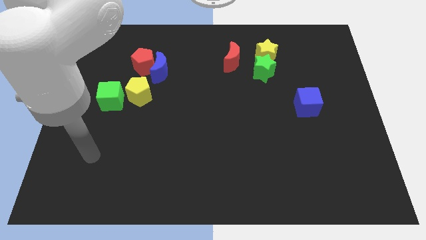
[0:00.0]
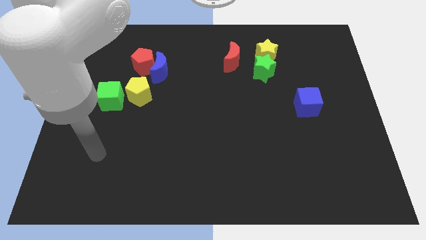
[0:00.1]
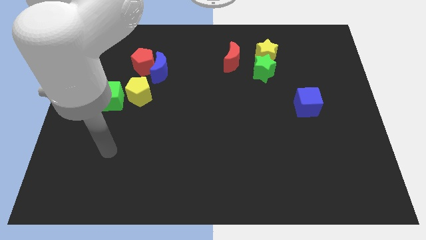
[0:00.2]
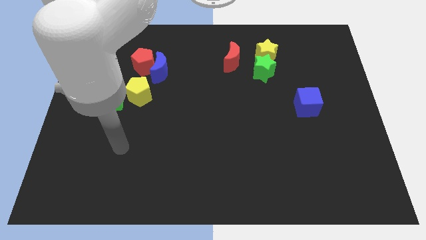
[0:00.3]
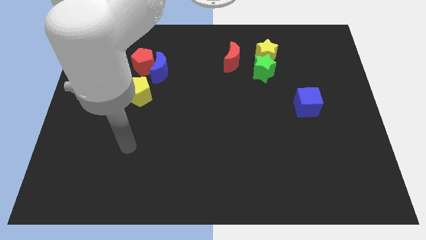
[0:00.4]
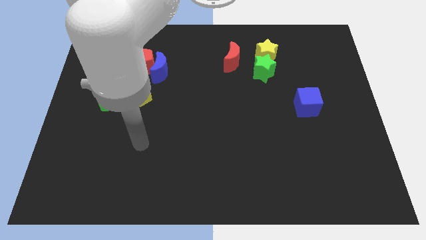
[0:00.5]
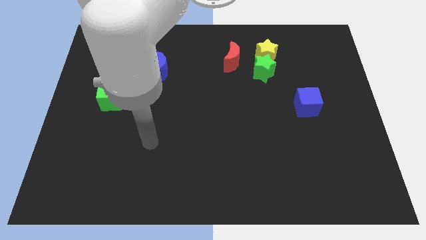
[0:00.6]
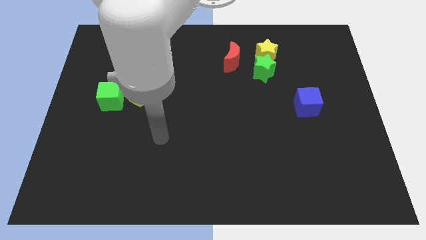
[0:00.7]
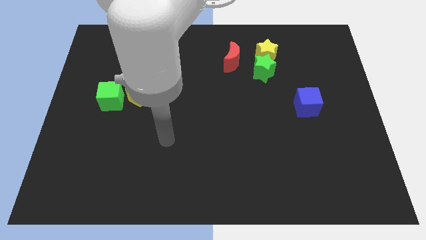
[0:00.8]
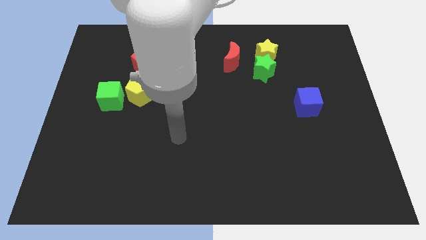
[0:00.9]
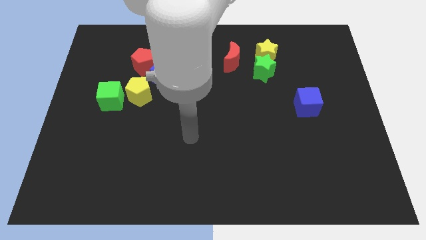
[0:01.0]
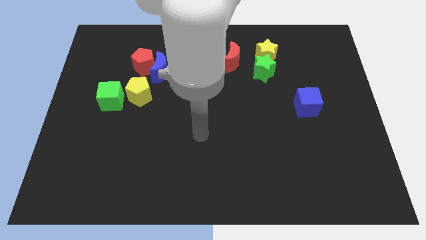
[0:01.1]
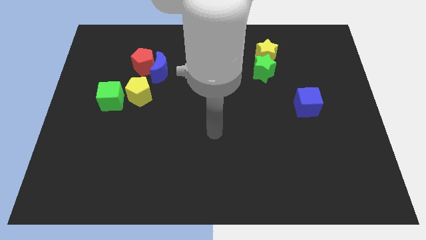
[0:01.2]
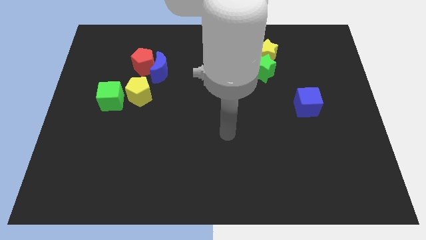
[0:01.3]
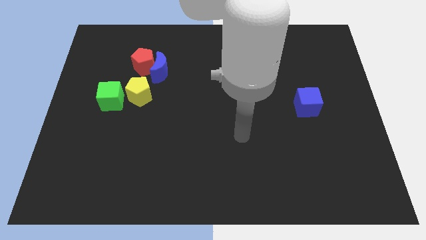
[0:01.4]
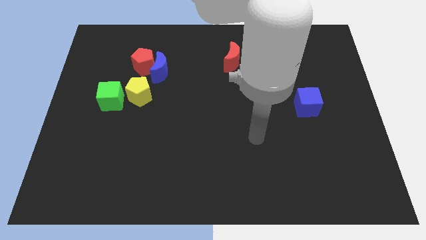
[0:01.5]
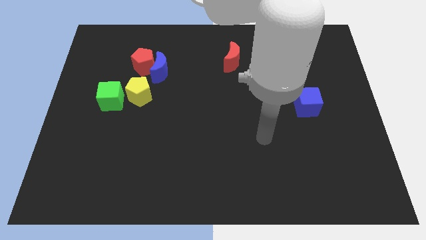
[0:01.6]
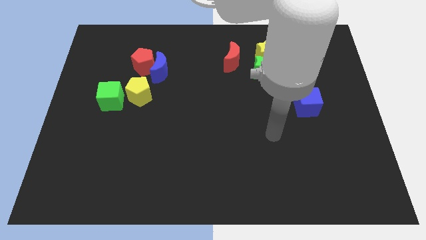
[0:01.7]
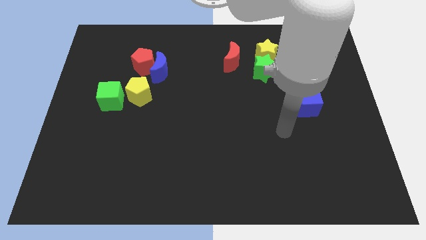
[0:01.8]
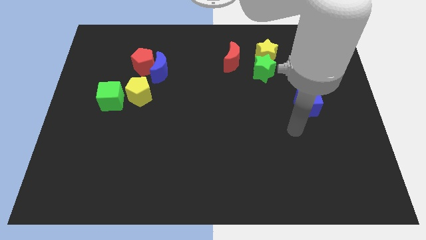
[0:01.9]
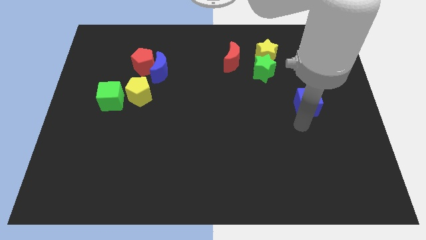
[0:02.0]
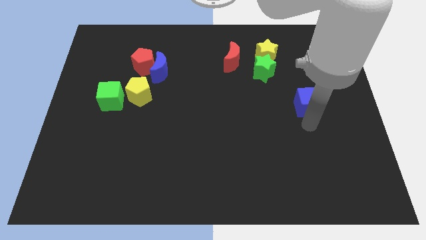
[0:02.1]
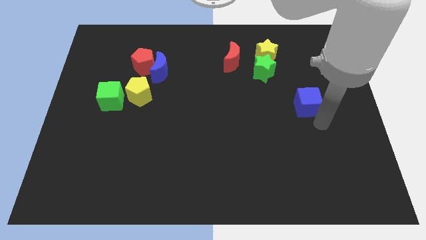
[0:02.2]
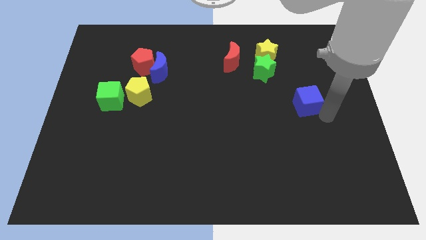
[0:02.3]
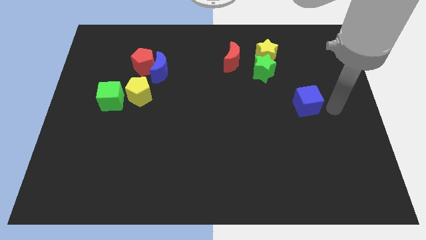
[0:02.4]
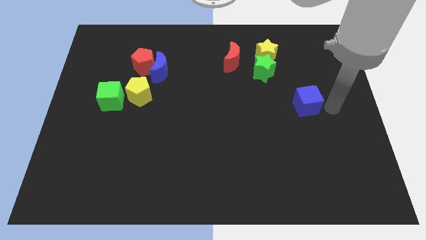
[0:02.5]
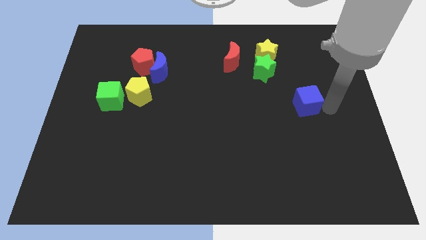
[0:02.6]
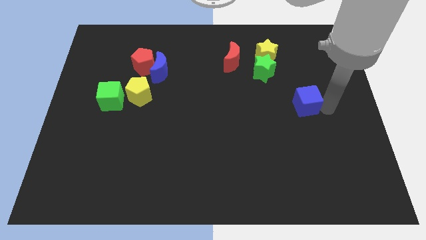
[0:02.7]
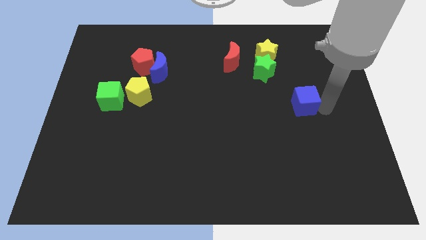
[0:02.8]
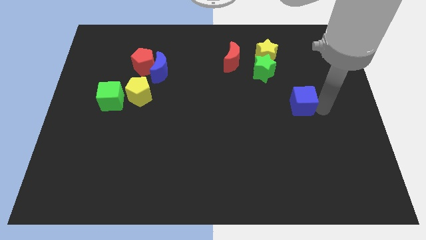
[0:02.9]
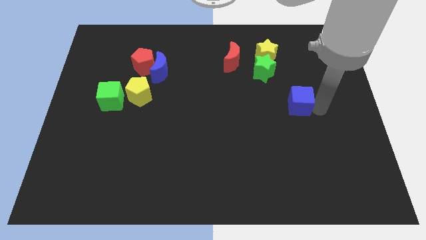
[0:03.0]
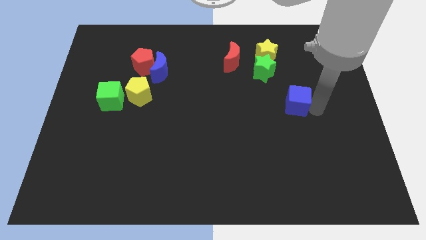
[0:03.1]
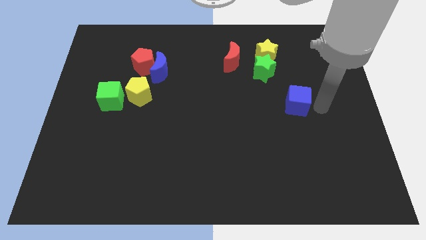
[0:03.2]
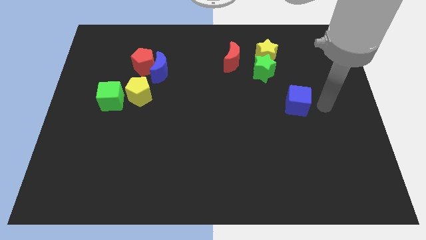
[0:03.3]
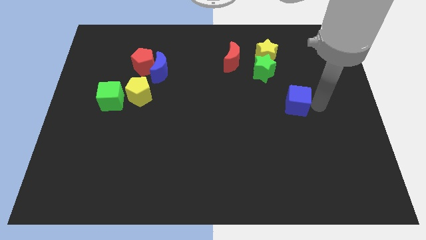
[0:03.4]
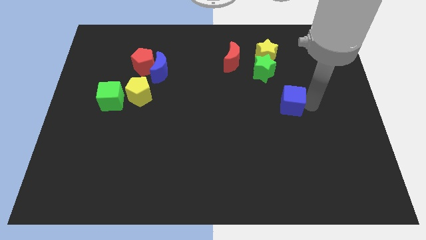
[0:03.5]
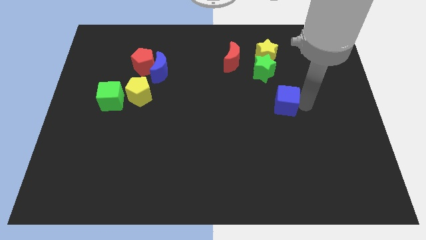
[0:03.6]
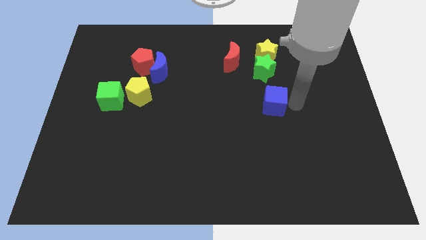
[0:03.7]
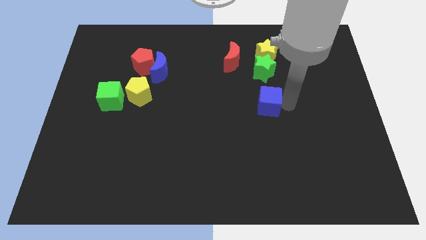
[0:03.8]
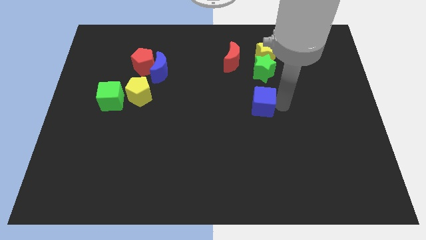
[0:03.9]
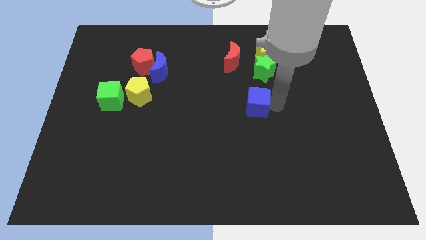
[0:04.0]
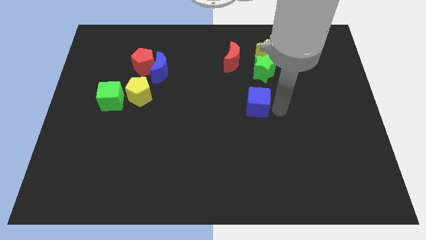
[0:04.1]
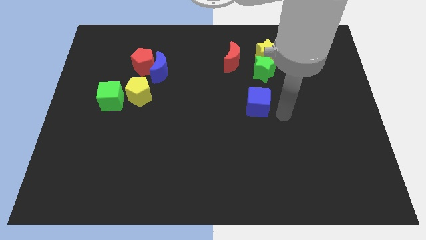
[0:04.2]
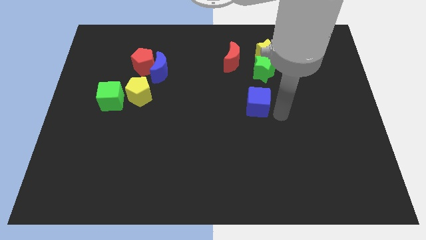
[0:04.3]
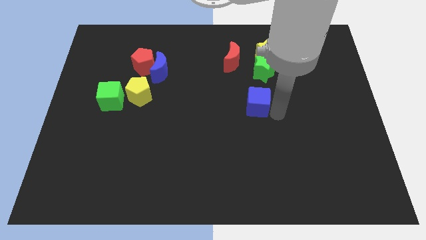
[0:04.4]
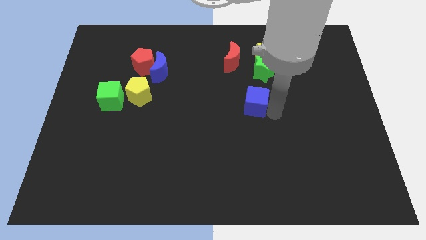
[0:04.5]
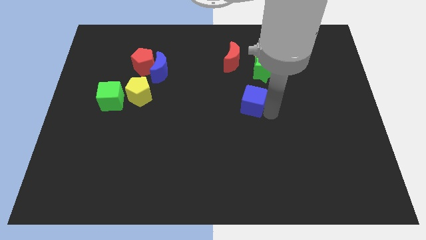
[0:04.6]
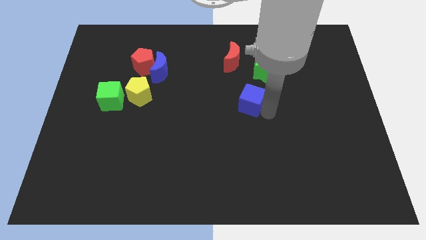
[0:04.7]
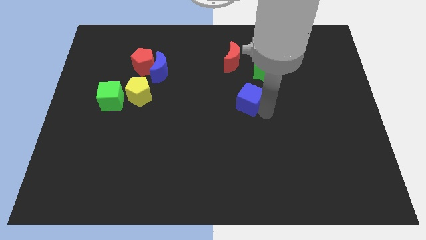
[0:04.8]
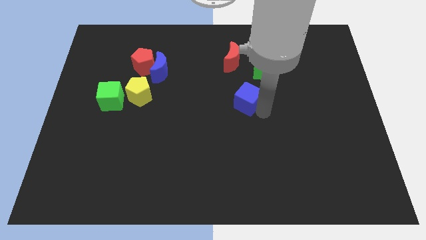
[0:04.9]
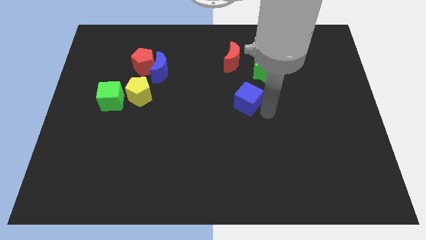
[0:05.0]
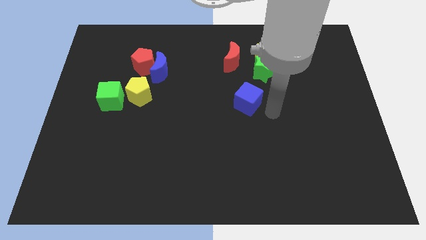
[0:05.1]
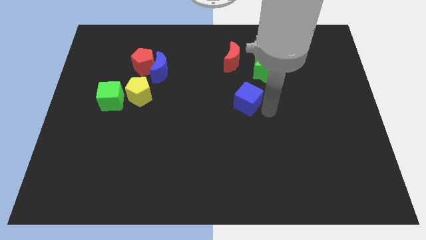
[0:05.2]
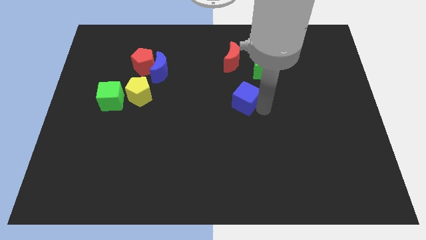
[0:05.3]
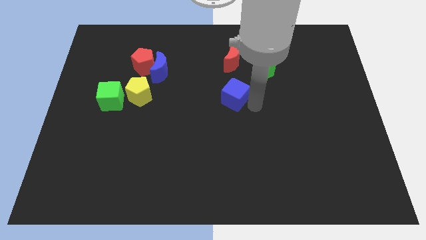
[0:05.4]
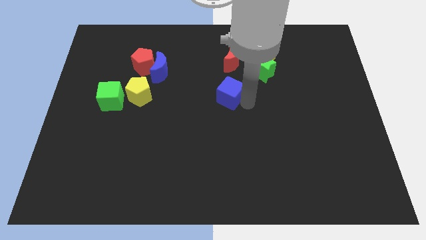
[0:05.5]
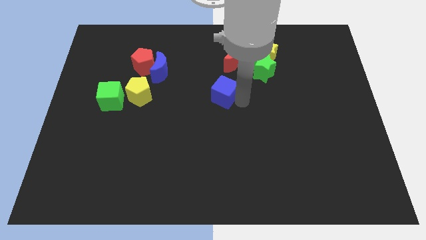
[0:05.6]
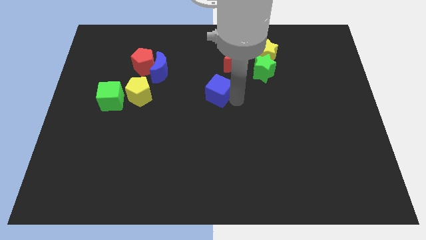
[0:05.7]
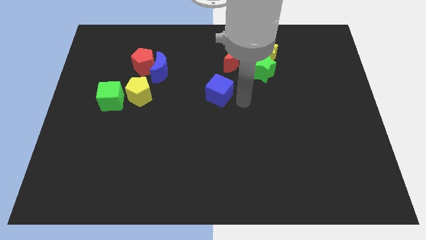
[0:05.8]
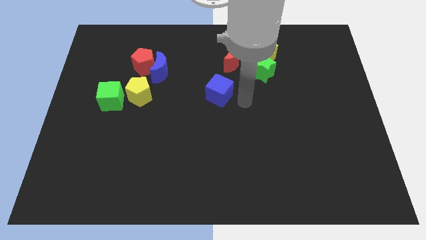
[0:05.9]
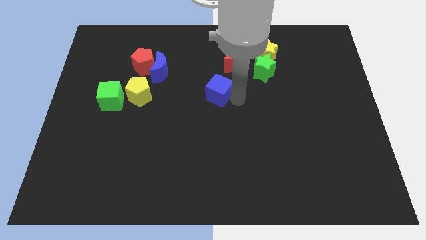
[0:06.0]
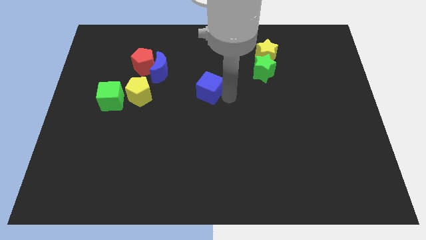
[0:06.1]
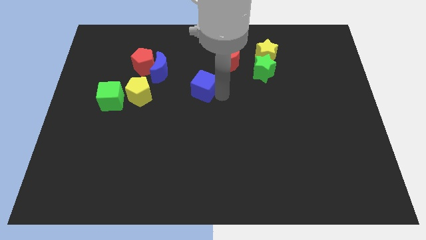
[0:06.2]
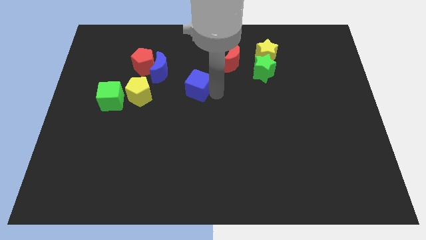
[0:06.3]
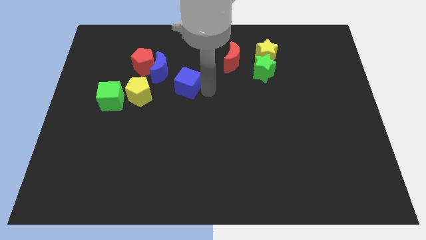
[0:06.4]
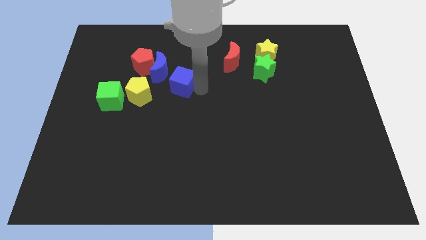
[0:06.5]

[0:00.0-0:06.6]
slide the blue cube to the bottom right of the red pentagon
